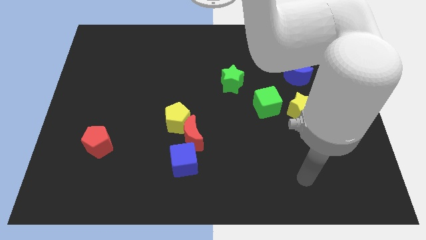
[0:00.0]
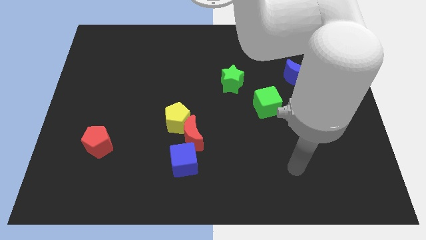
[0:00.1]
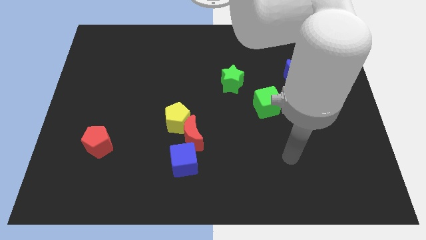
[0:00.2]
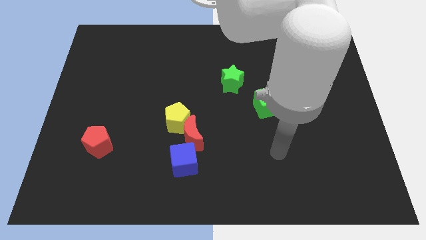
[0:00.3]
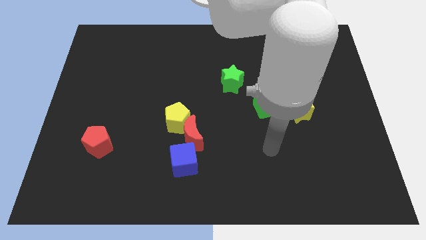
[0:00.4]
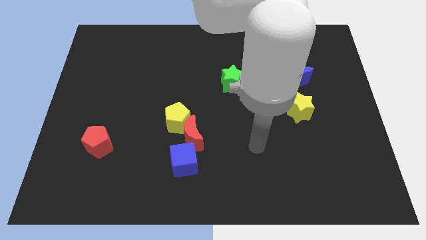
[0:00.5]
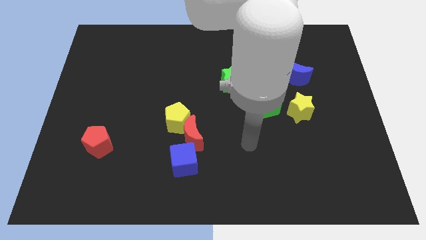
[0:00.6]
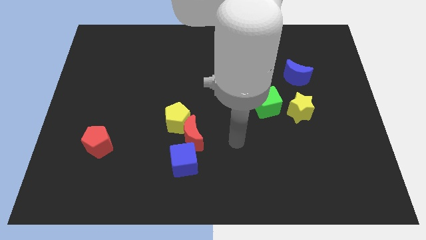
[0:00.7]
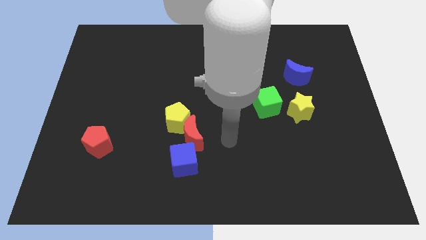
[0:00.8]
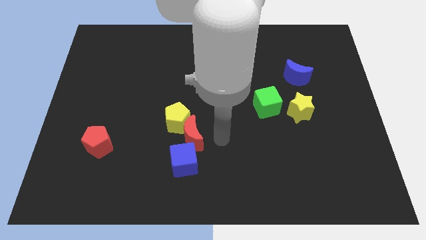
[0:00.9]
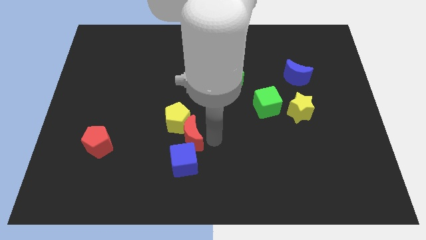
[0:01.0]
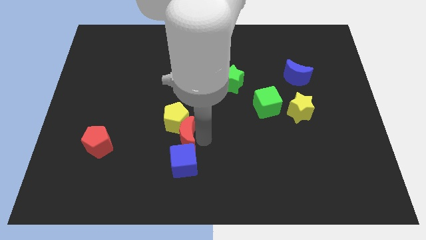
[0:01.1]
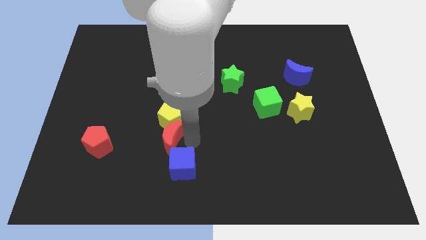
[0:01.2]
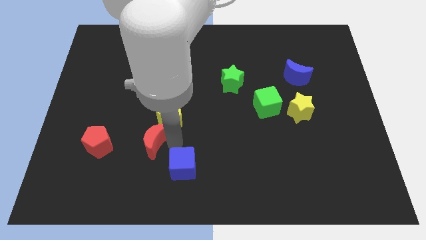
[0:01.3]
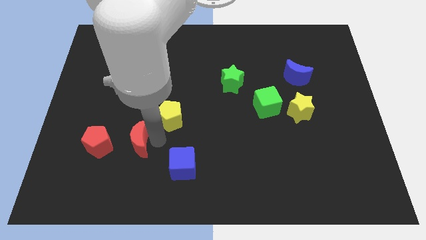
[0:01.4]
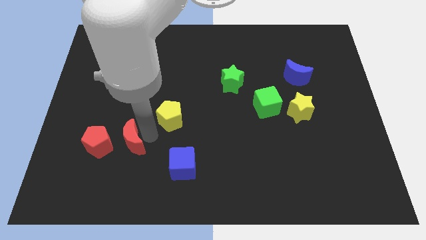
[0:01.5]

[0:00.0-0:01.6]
move the yellow pentagon away from the red moon

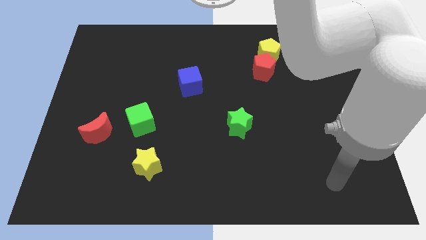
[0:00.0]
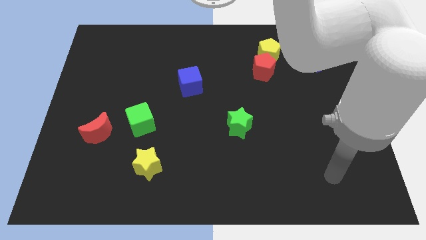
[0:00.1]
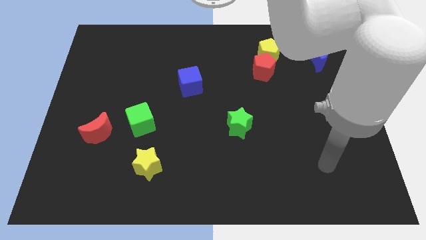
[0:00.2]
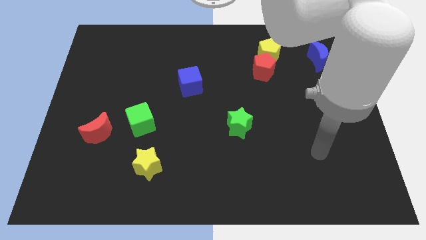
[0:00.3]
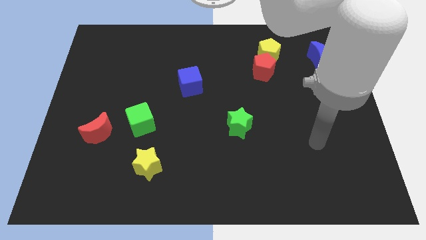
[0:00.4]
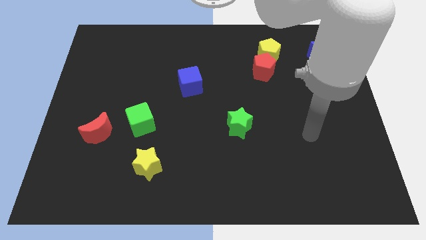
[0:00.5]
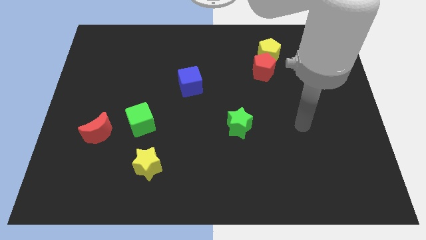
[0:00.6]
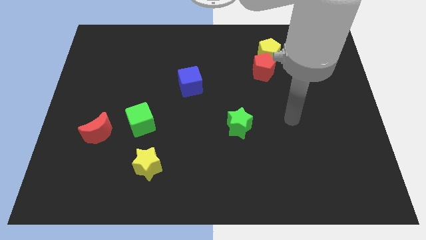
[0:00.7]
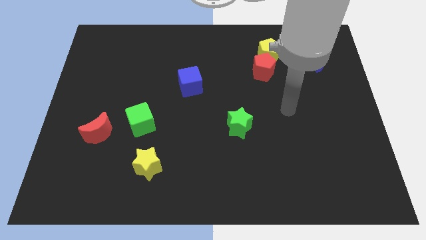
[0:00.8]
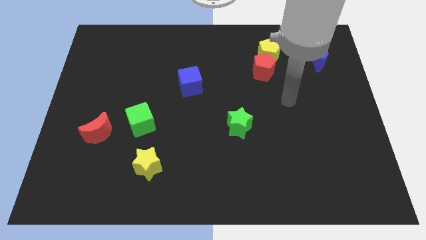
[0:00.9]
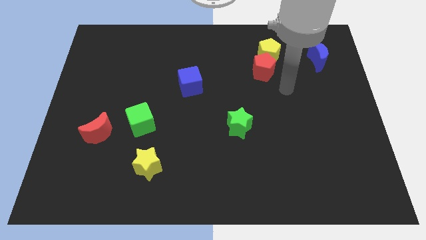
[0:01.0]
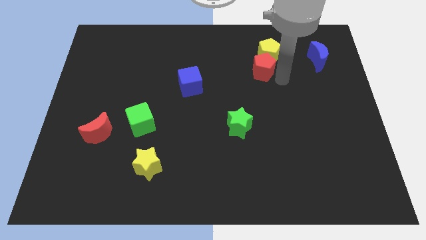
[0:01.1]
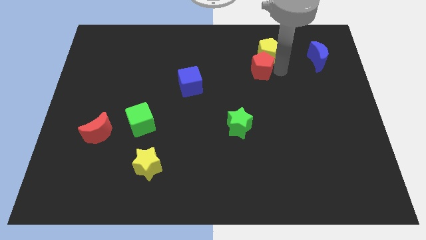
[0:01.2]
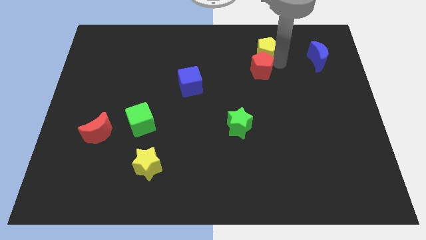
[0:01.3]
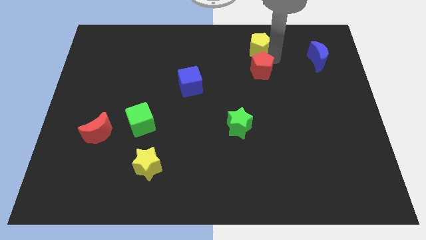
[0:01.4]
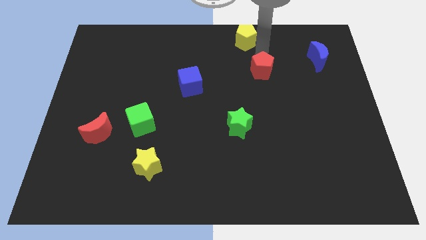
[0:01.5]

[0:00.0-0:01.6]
move the red pentagon away from the yellow pentagon

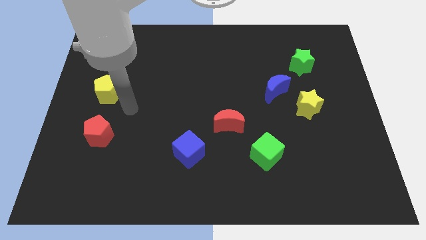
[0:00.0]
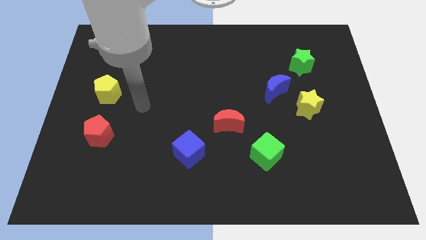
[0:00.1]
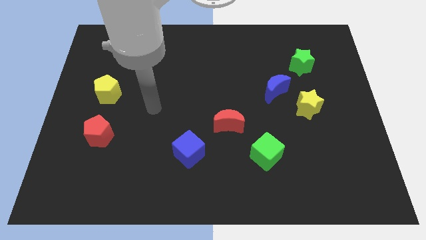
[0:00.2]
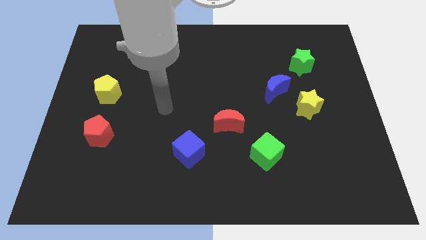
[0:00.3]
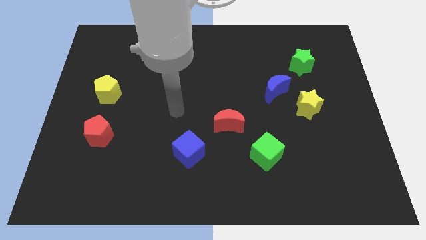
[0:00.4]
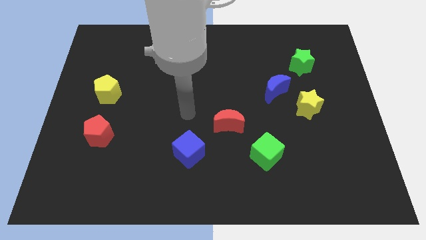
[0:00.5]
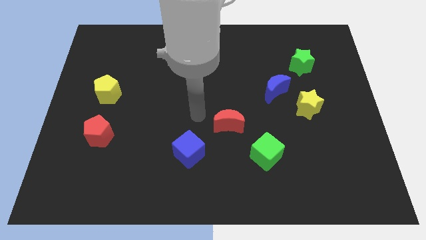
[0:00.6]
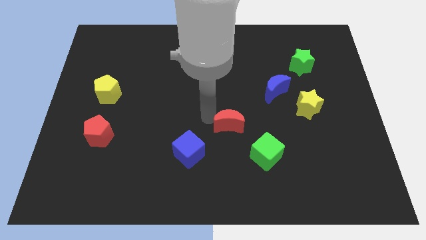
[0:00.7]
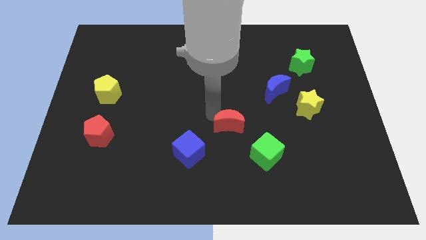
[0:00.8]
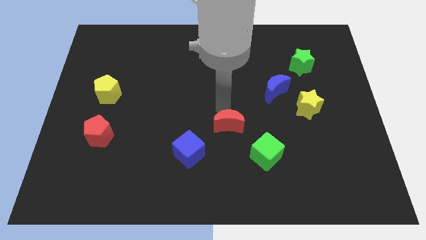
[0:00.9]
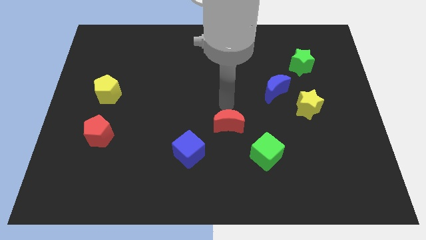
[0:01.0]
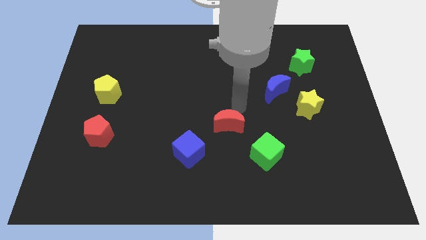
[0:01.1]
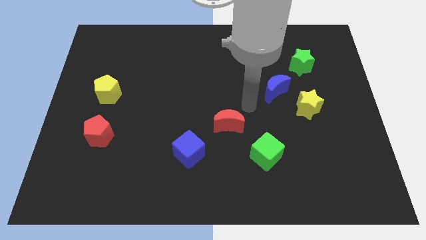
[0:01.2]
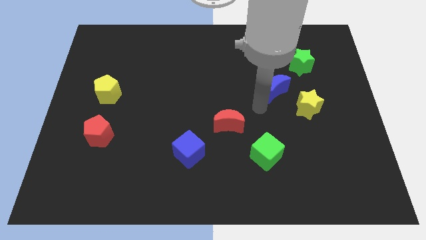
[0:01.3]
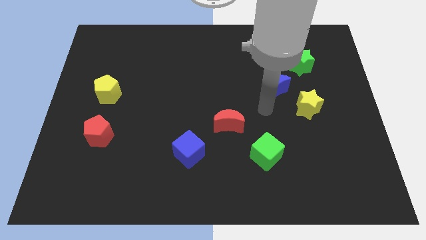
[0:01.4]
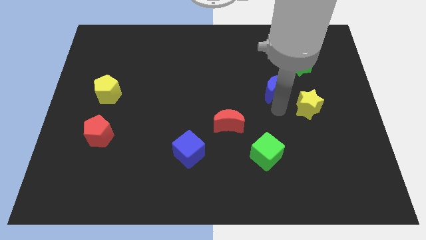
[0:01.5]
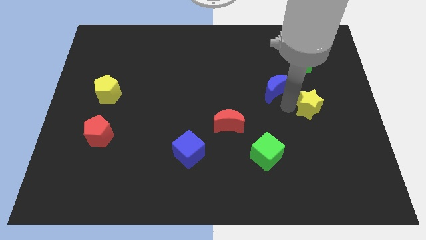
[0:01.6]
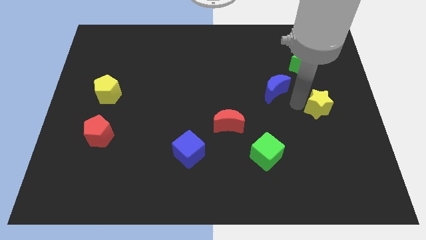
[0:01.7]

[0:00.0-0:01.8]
separate the blue moon from the yellow star

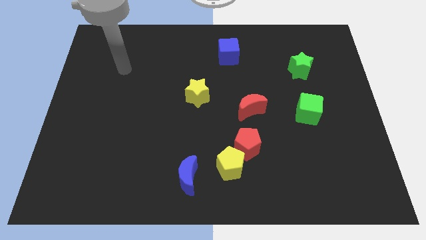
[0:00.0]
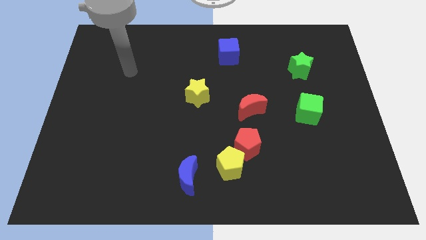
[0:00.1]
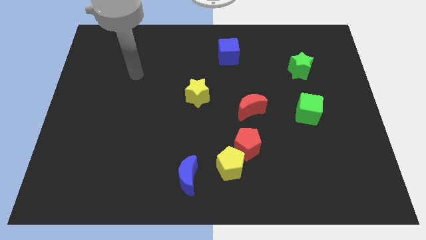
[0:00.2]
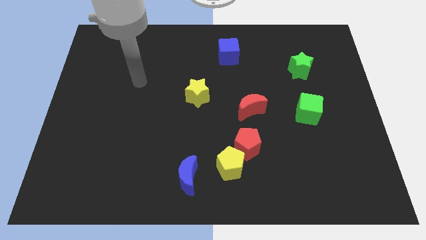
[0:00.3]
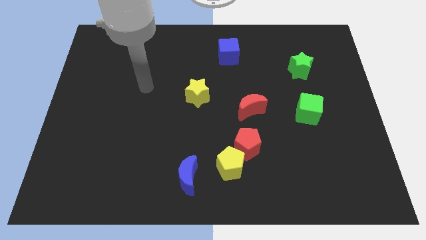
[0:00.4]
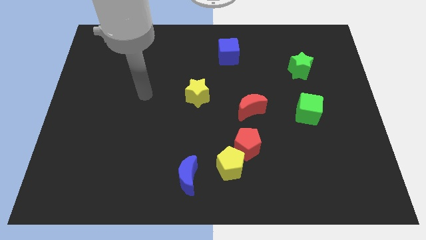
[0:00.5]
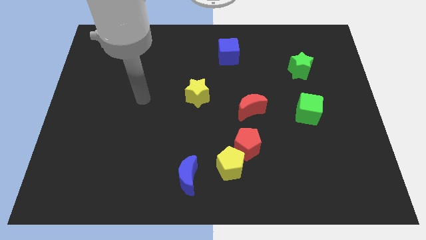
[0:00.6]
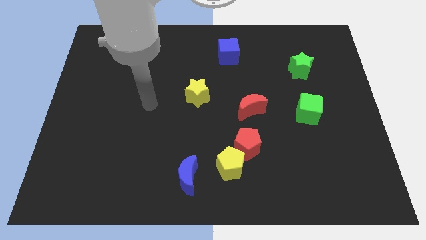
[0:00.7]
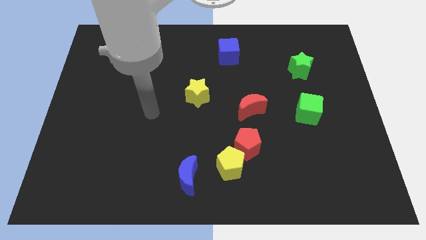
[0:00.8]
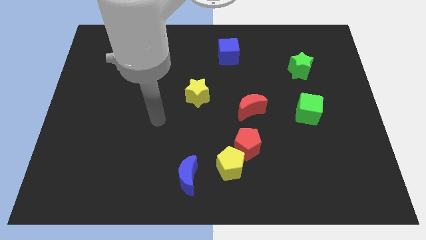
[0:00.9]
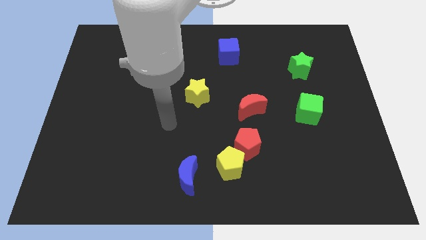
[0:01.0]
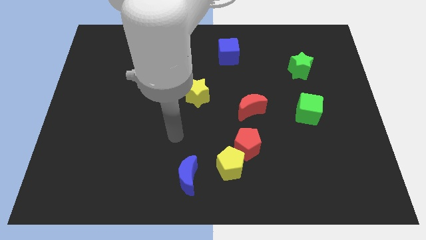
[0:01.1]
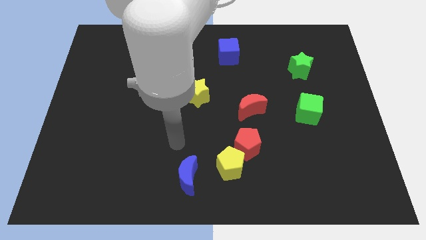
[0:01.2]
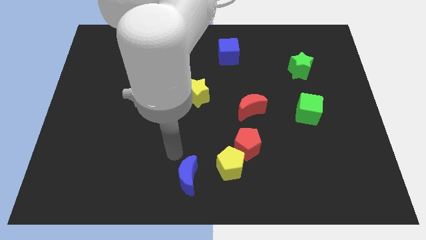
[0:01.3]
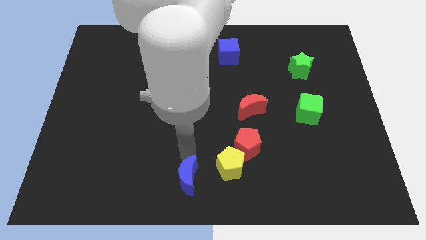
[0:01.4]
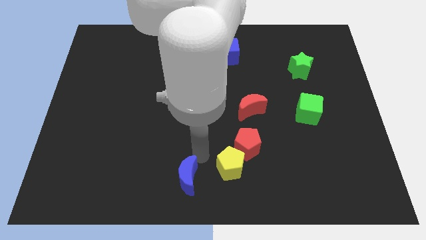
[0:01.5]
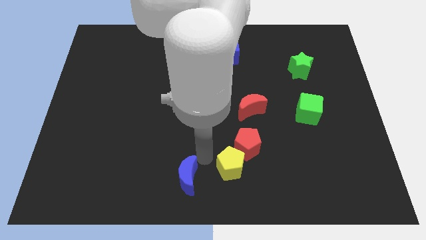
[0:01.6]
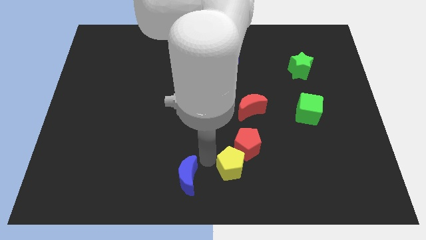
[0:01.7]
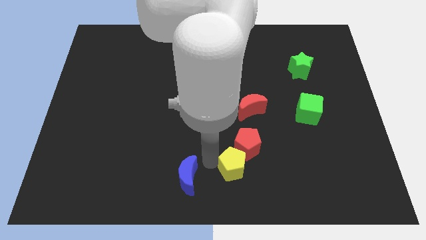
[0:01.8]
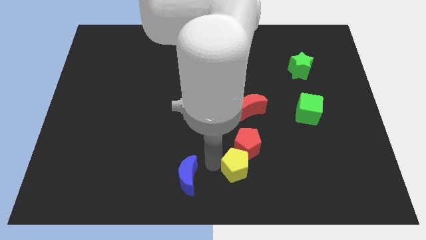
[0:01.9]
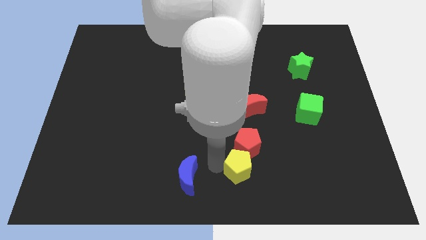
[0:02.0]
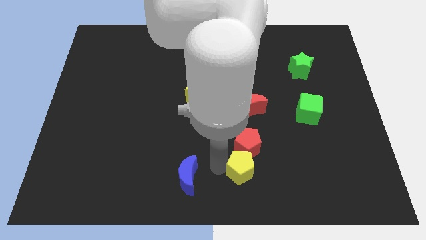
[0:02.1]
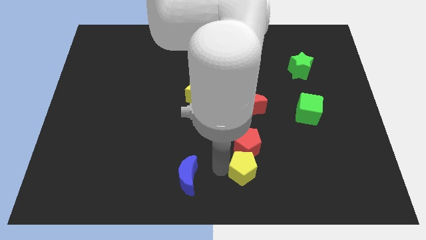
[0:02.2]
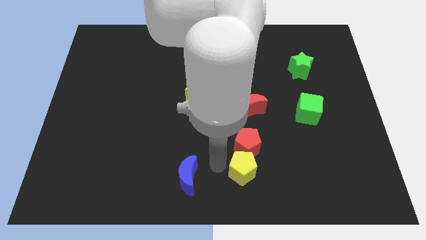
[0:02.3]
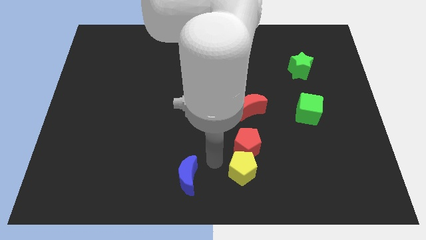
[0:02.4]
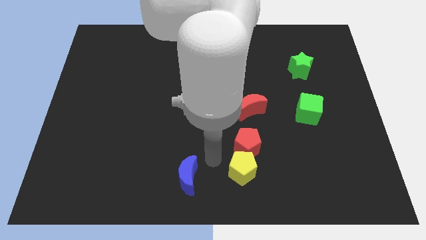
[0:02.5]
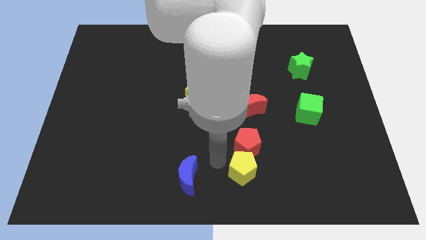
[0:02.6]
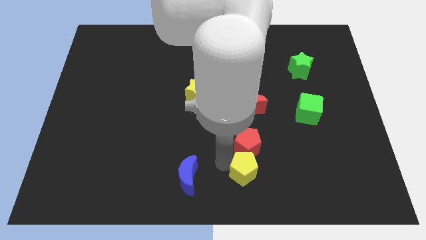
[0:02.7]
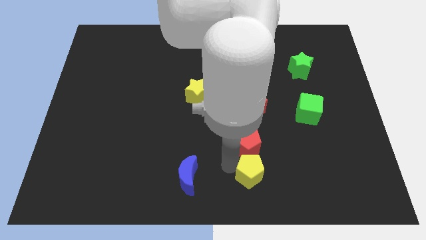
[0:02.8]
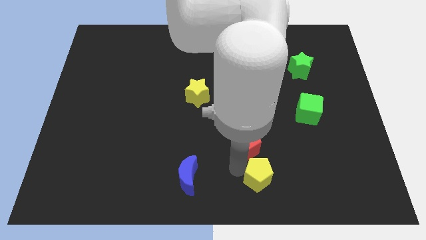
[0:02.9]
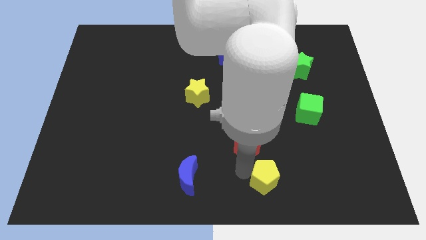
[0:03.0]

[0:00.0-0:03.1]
separate the yellow pentagon from the red pentagon and blue moon

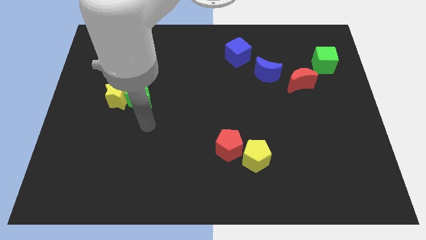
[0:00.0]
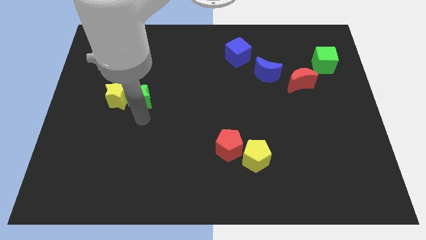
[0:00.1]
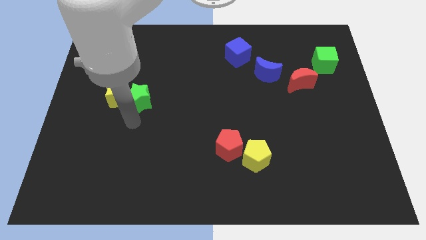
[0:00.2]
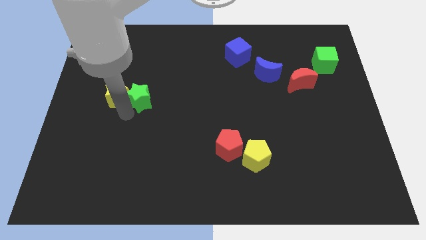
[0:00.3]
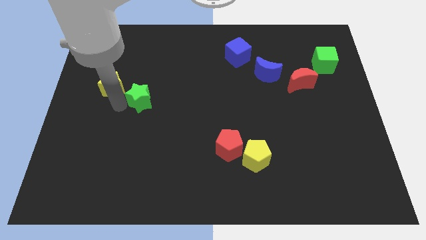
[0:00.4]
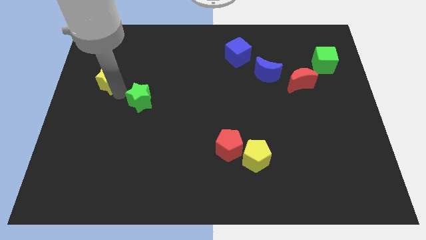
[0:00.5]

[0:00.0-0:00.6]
separate the green star from the yellow star

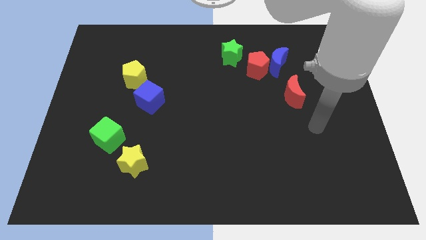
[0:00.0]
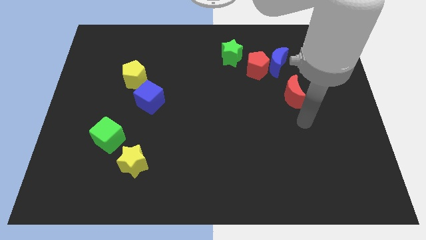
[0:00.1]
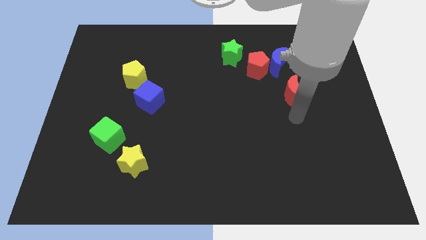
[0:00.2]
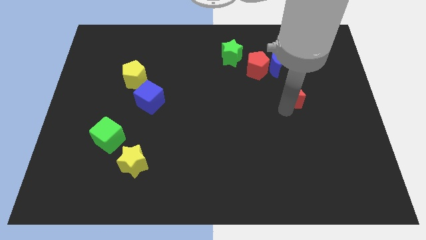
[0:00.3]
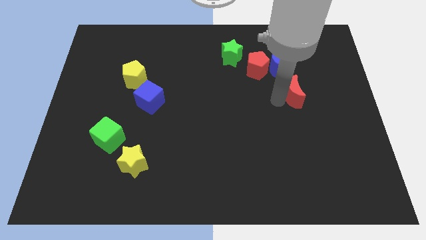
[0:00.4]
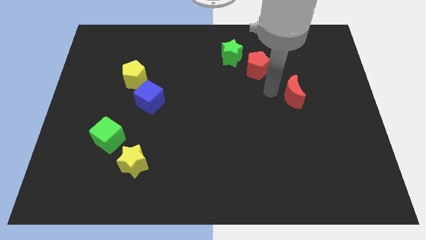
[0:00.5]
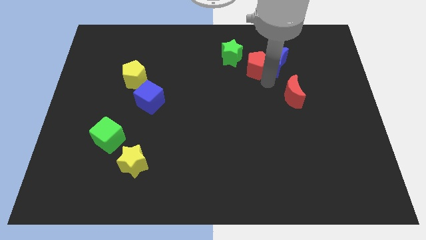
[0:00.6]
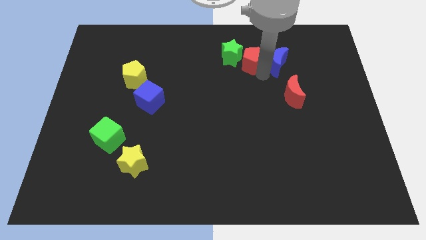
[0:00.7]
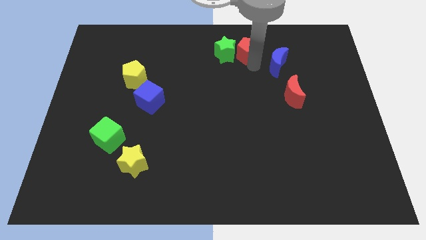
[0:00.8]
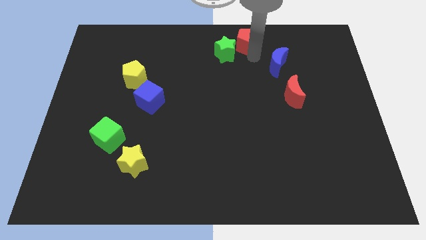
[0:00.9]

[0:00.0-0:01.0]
move the blue moon away from the red pentagon
